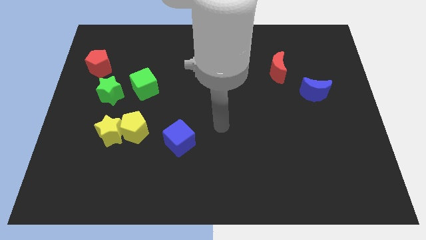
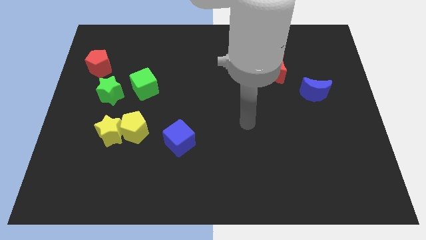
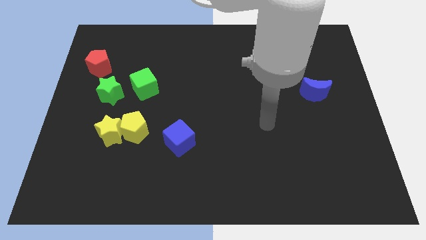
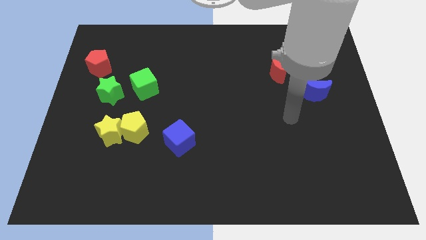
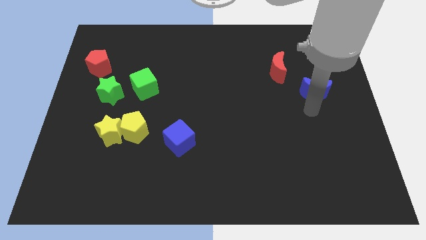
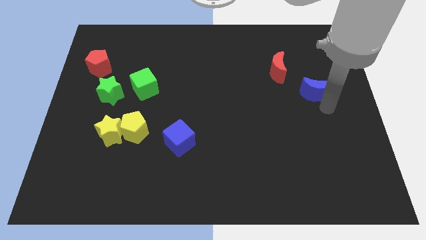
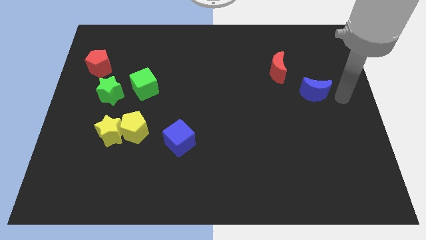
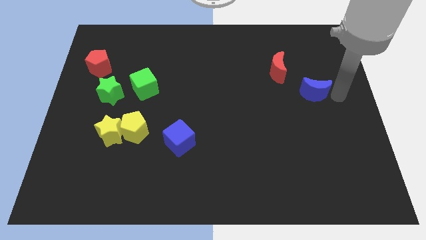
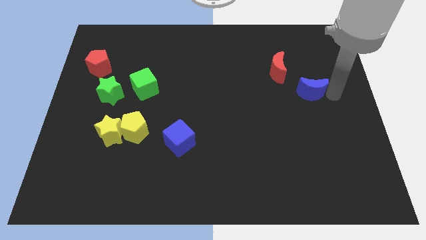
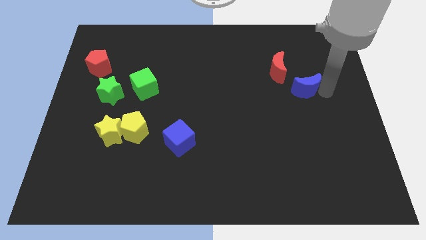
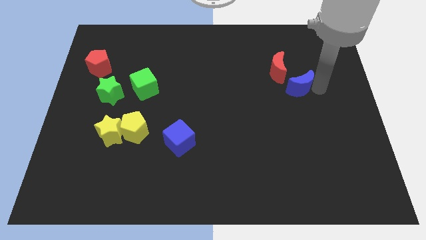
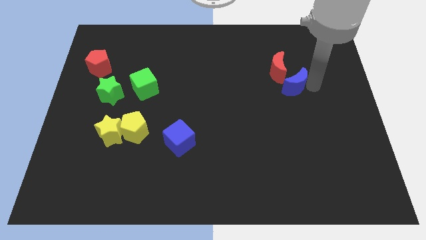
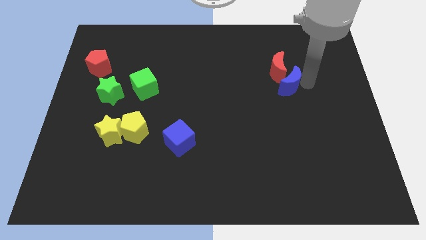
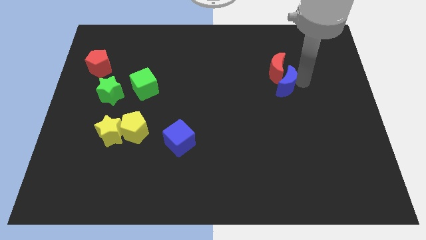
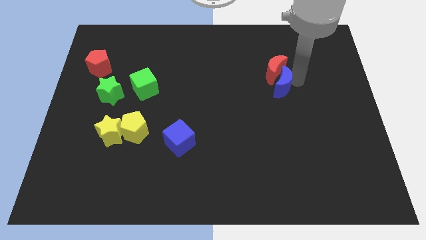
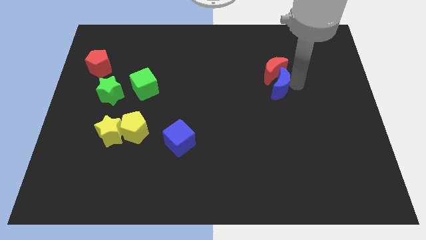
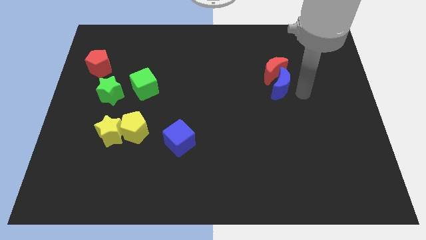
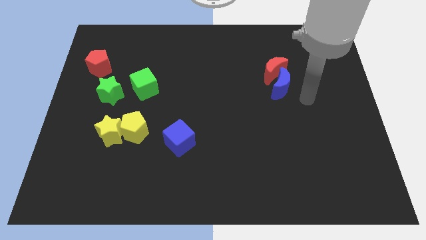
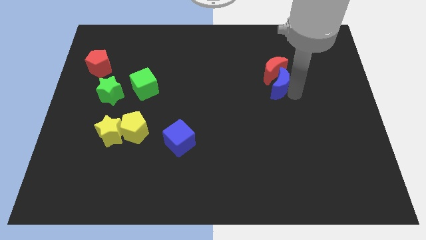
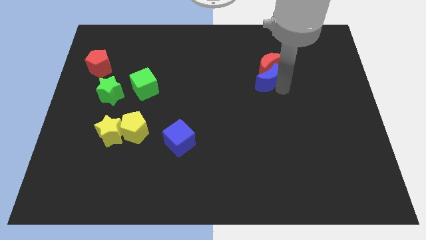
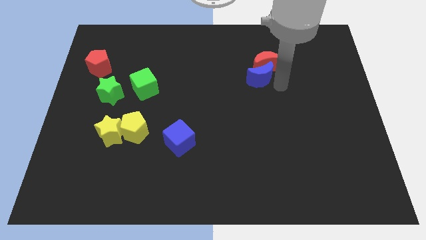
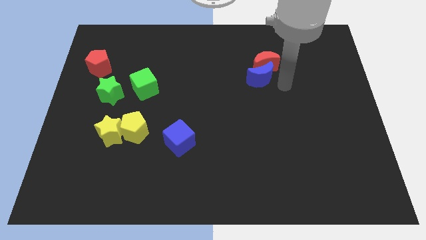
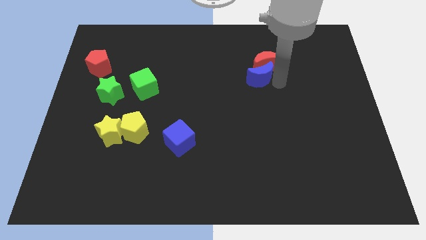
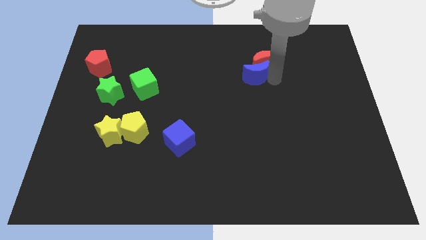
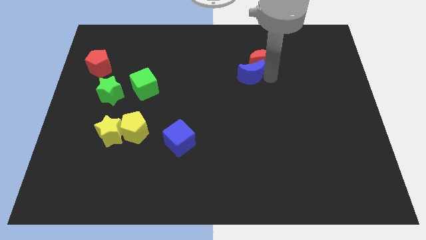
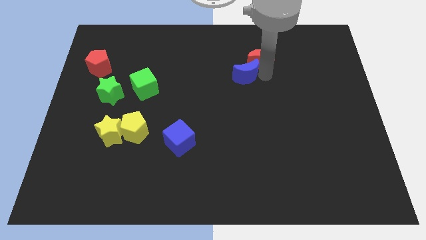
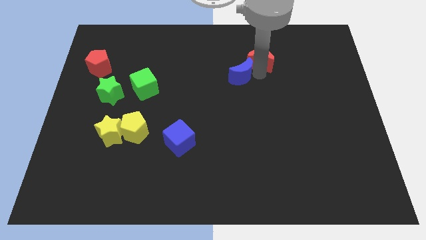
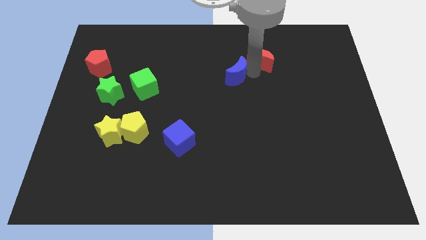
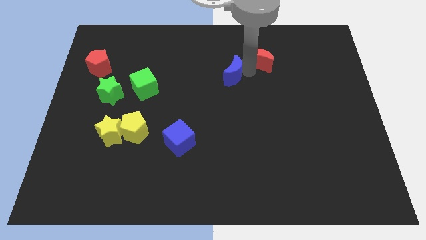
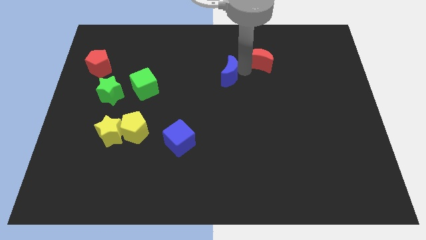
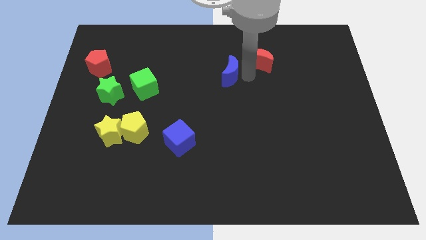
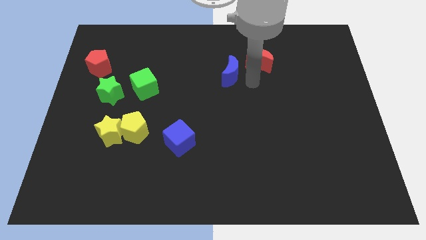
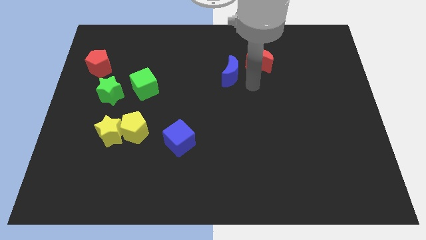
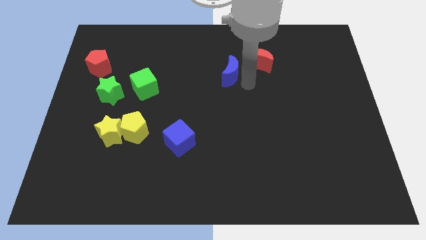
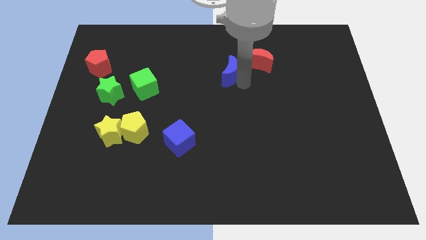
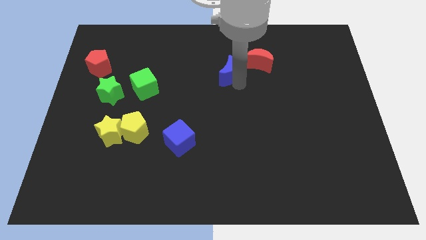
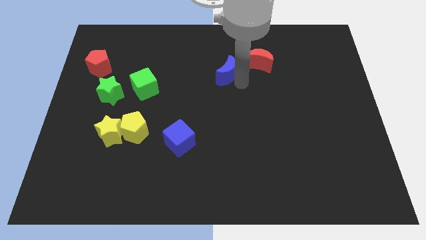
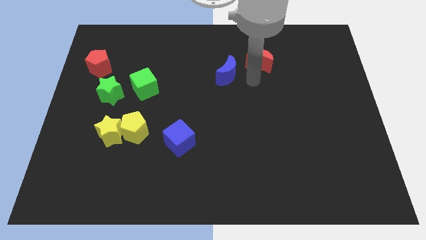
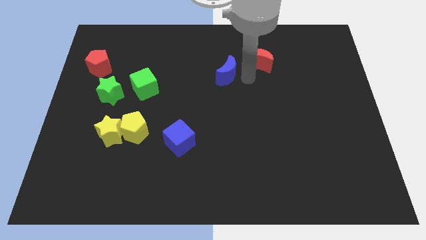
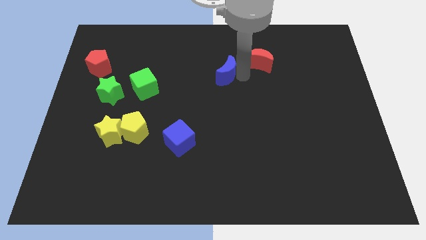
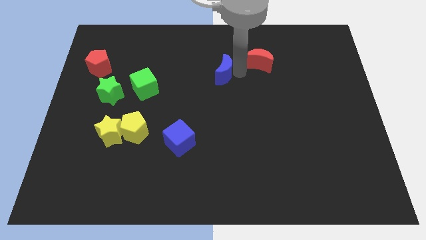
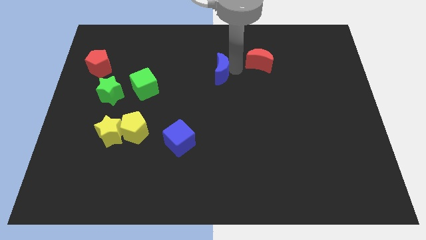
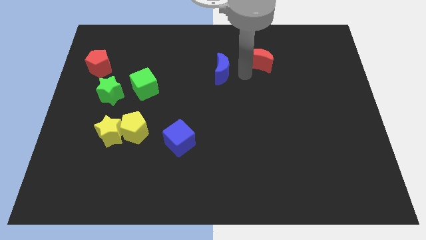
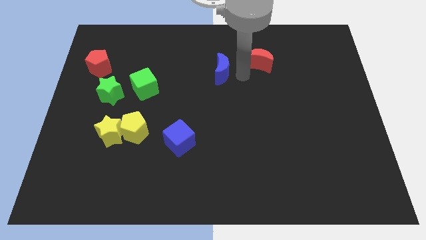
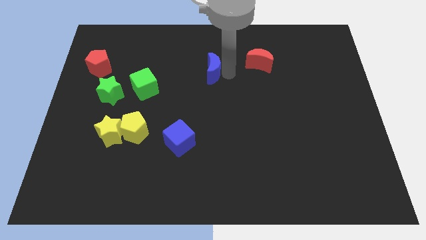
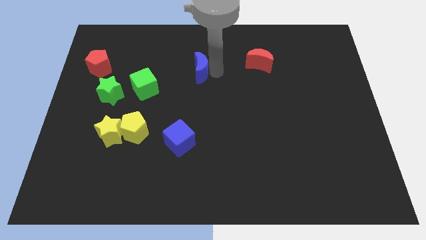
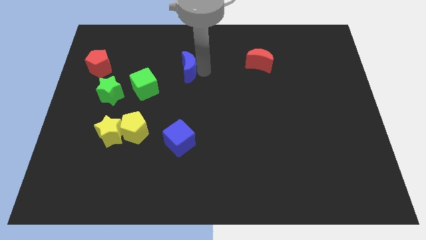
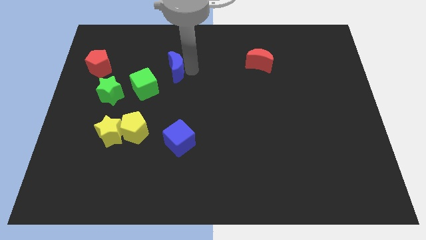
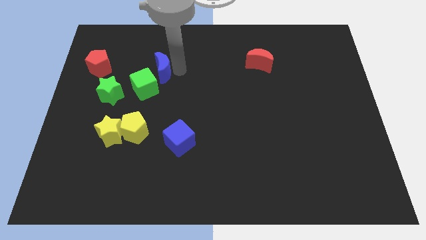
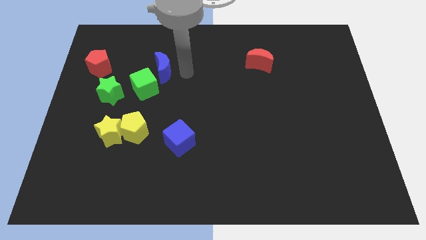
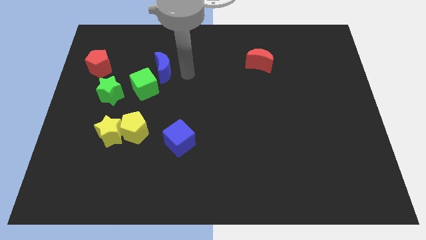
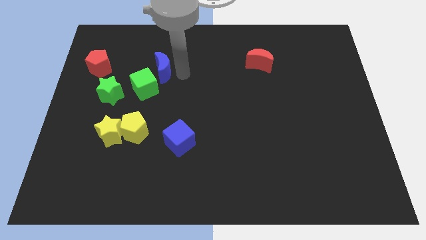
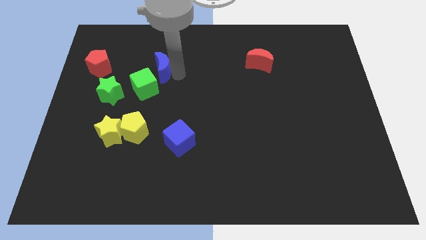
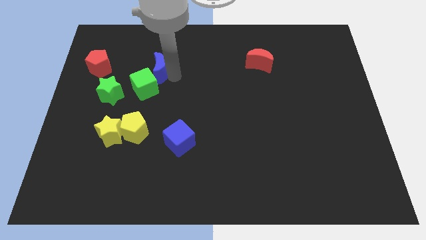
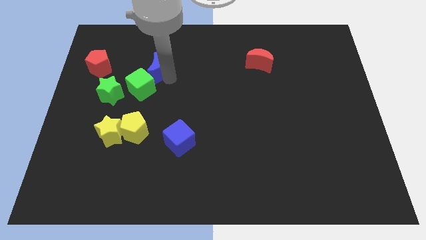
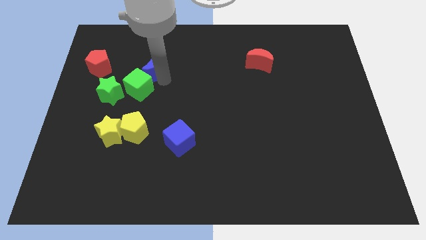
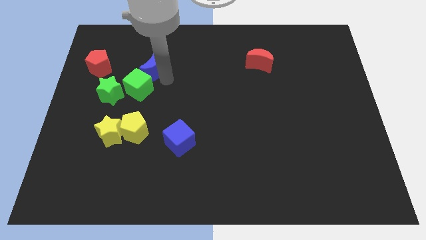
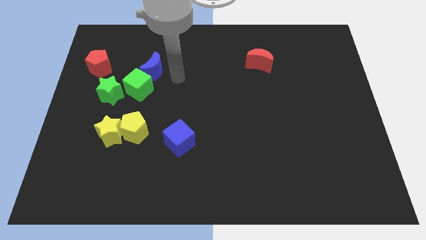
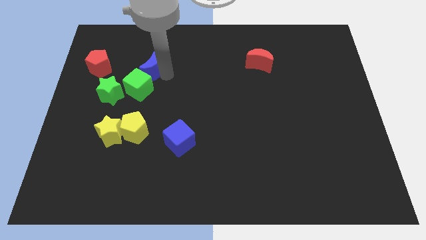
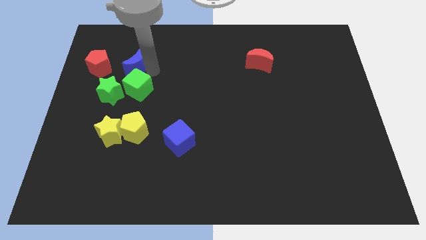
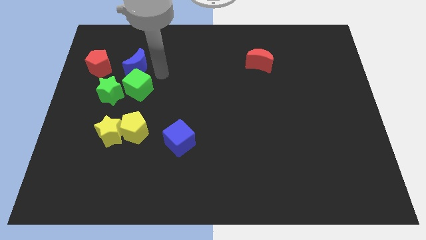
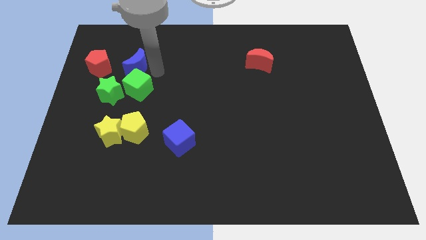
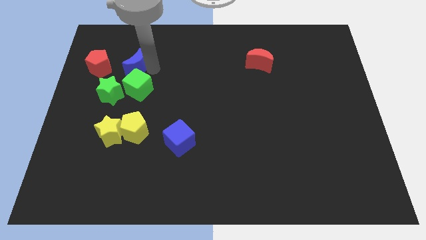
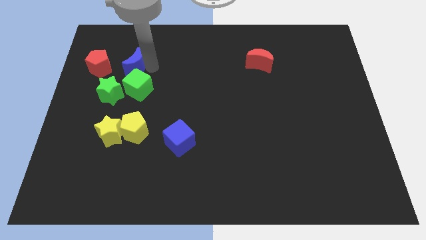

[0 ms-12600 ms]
push the blue moon to the top side of the green star

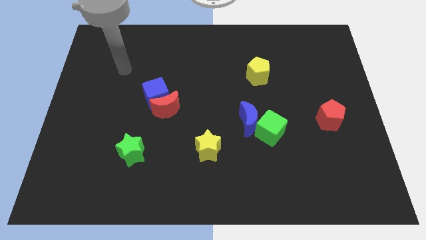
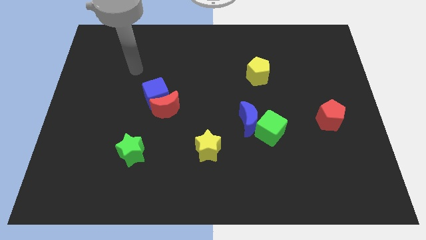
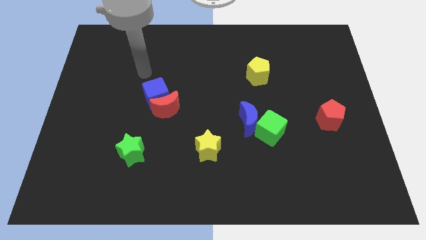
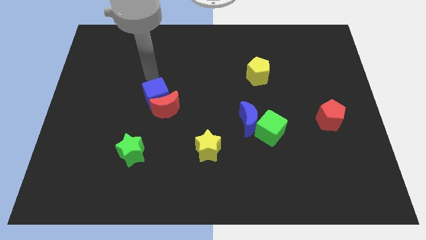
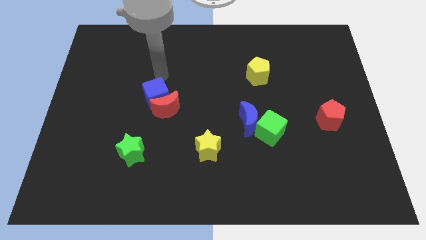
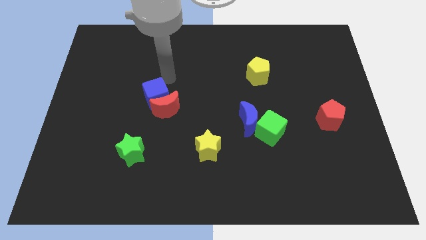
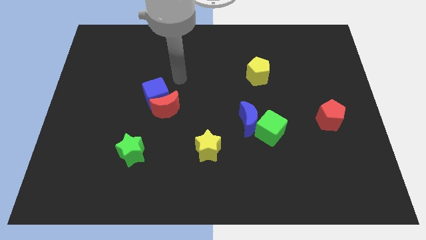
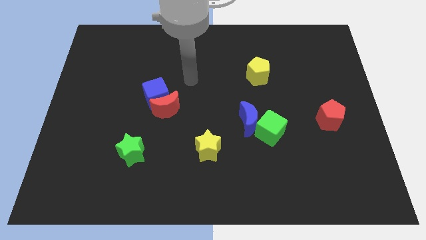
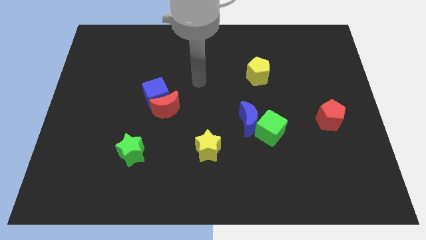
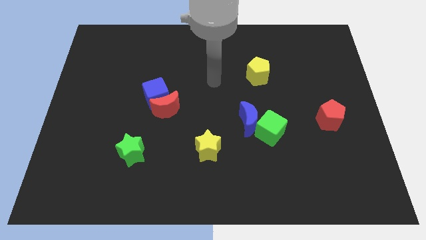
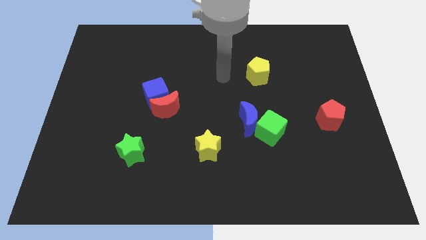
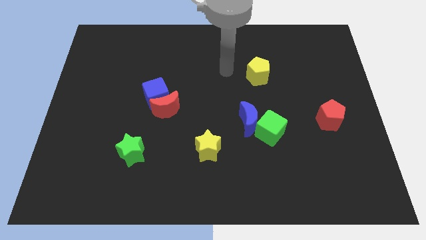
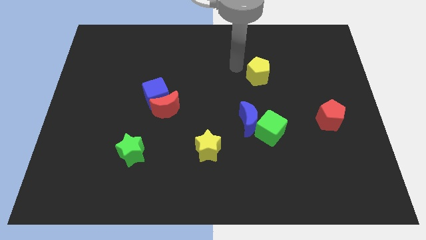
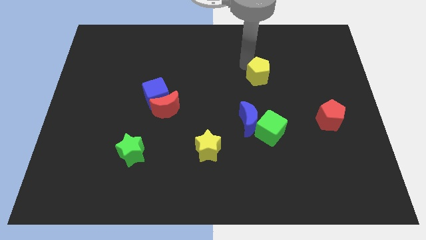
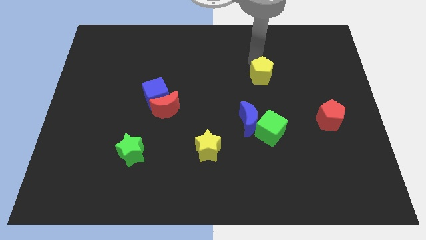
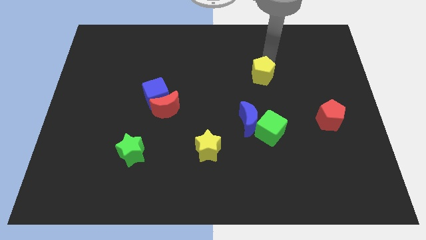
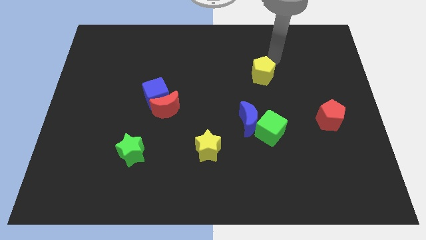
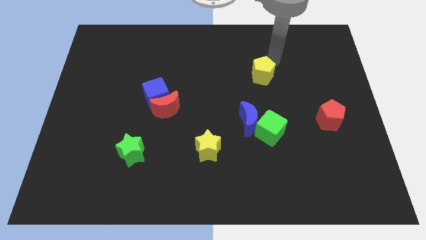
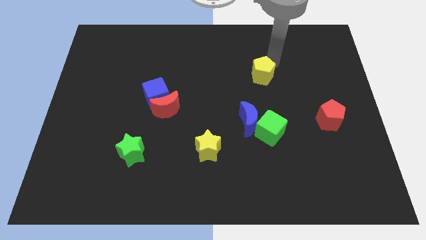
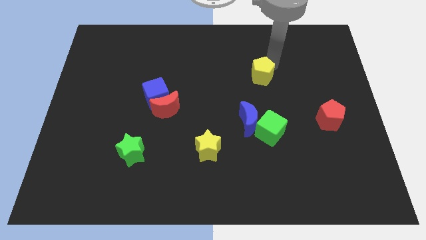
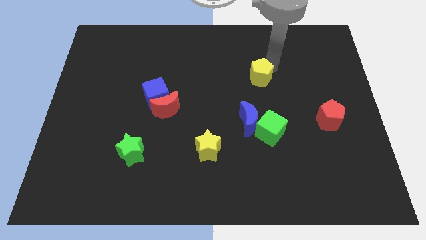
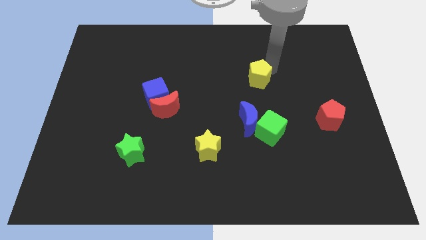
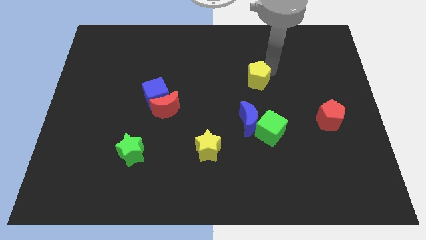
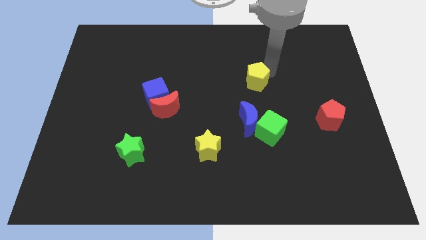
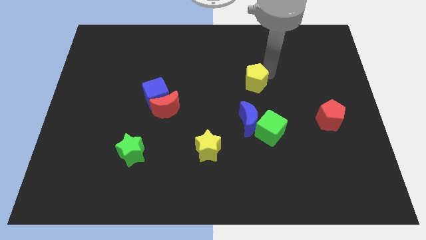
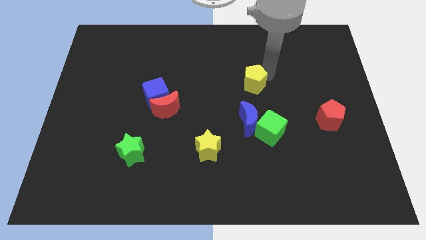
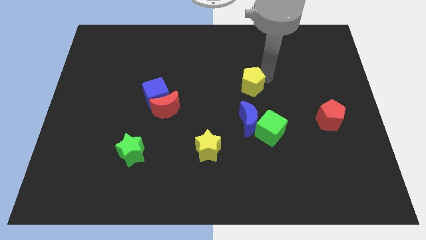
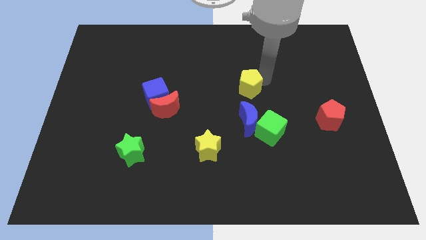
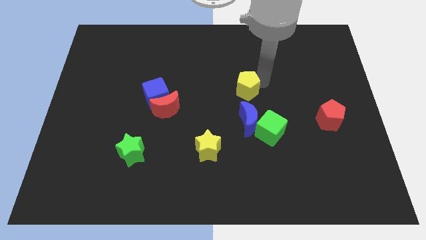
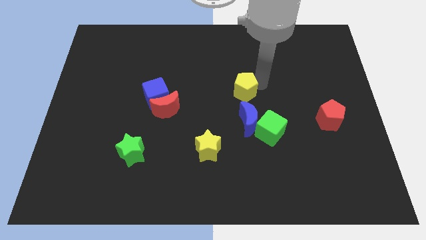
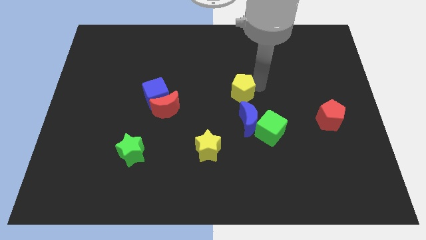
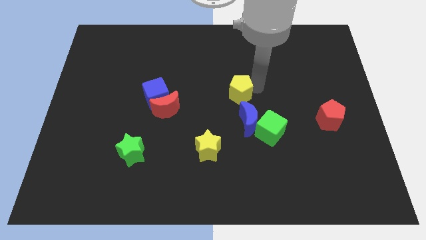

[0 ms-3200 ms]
put the yellow pentagon diagonally up and to the left of the blue moon
